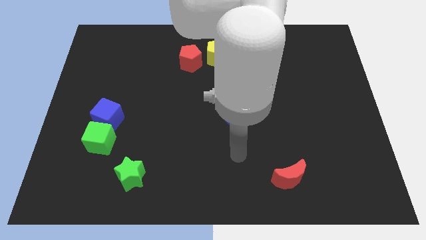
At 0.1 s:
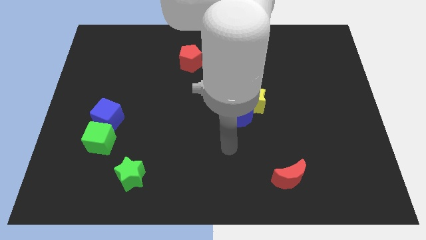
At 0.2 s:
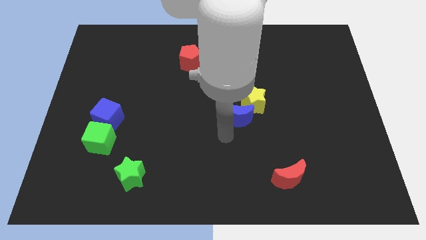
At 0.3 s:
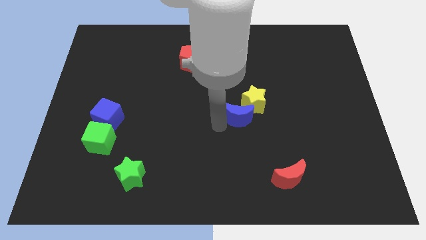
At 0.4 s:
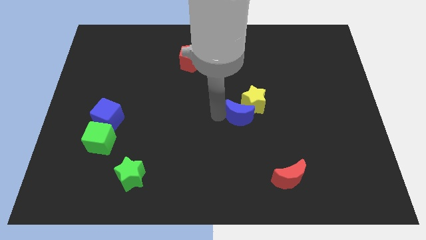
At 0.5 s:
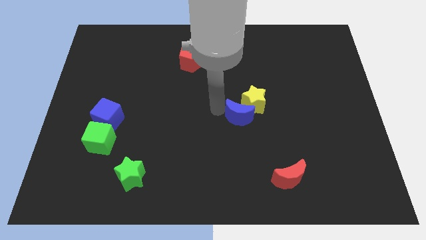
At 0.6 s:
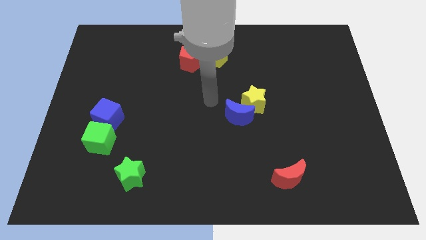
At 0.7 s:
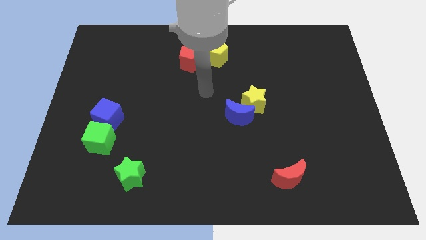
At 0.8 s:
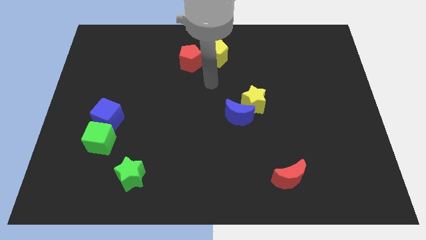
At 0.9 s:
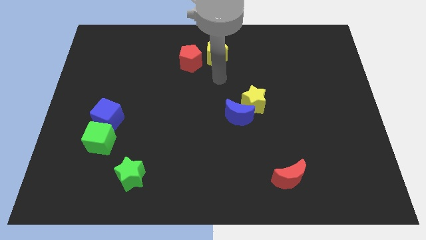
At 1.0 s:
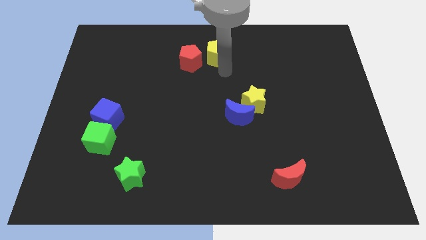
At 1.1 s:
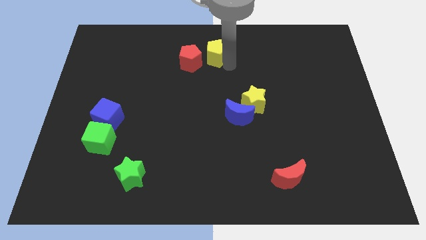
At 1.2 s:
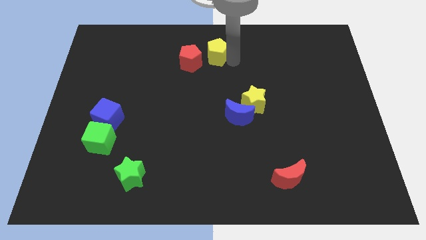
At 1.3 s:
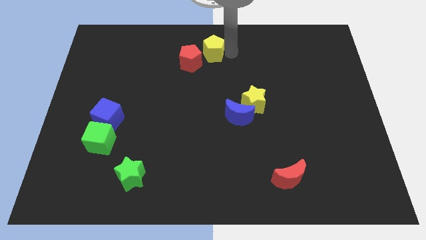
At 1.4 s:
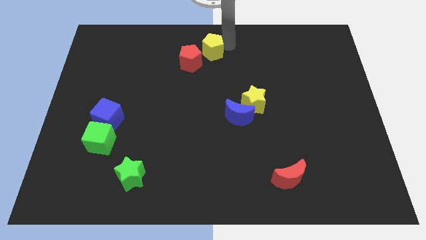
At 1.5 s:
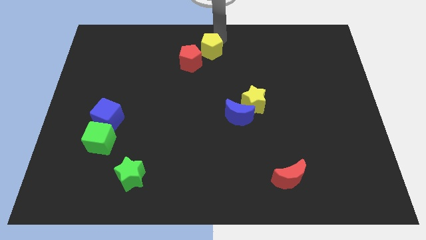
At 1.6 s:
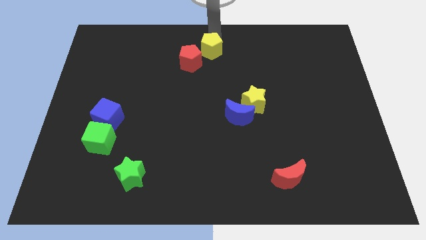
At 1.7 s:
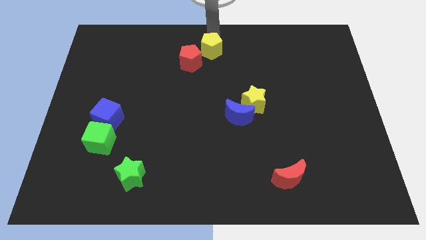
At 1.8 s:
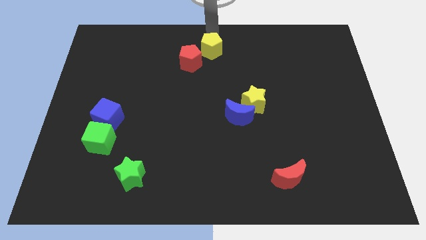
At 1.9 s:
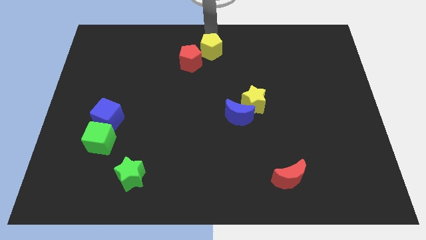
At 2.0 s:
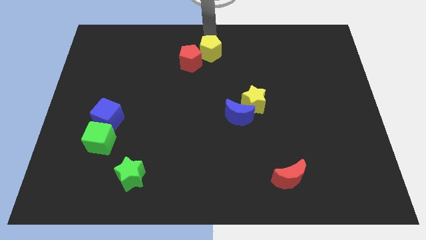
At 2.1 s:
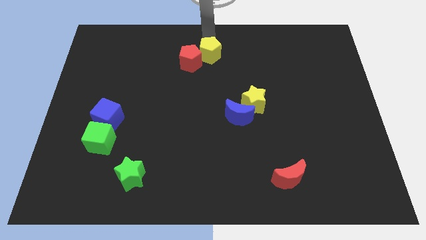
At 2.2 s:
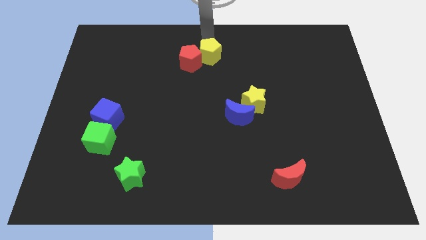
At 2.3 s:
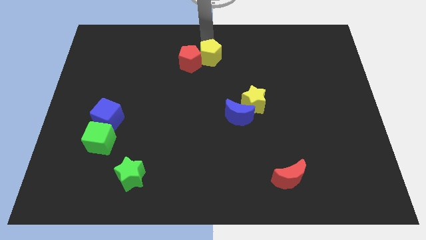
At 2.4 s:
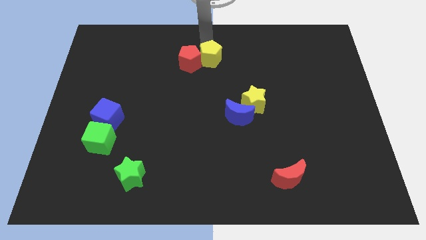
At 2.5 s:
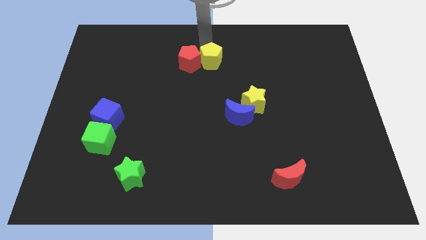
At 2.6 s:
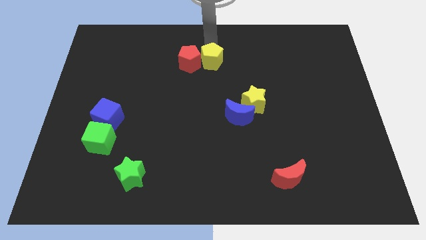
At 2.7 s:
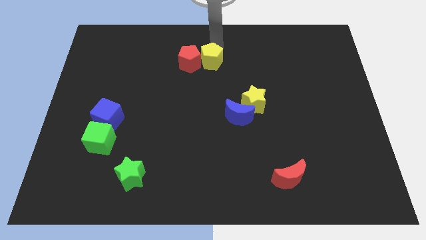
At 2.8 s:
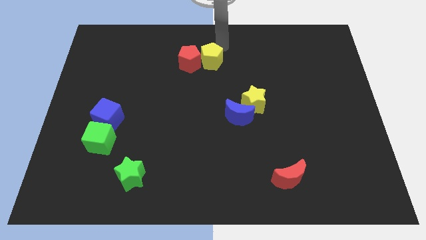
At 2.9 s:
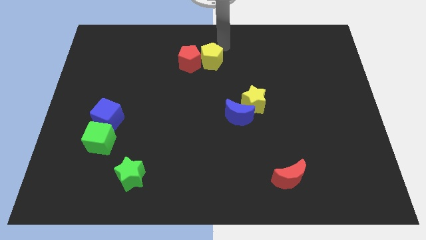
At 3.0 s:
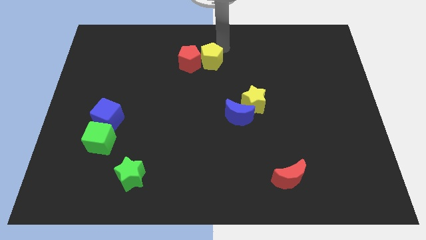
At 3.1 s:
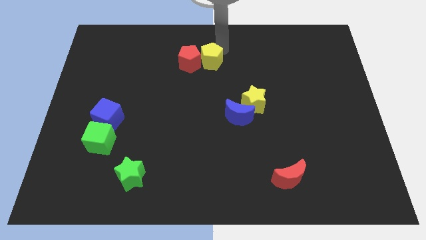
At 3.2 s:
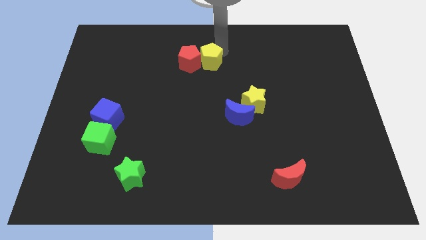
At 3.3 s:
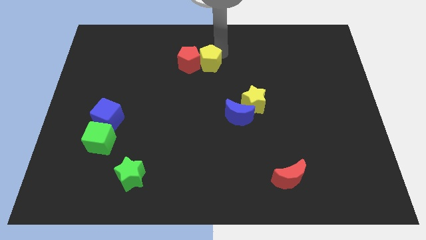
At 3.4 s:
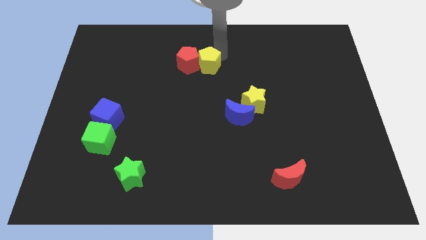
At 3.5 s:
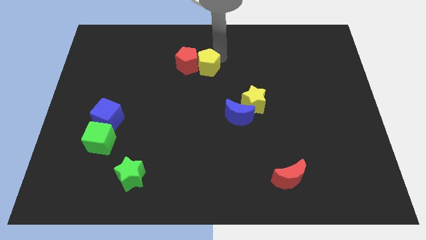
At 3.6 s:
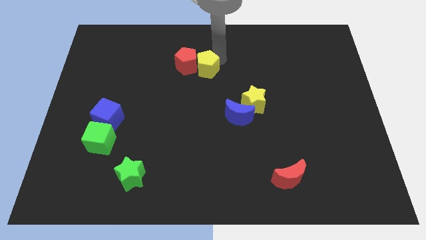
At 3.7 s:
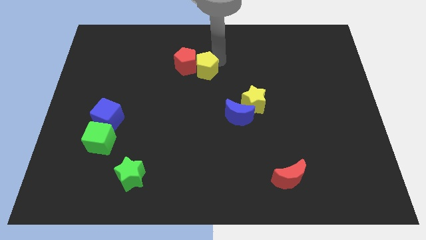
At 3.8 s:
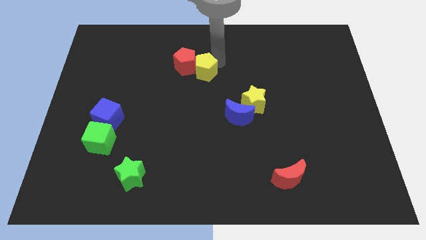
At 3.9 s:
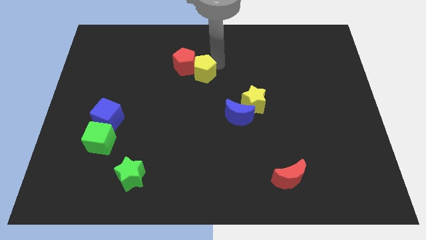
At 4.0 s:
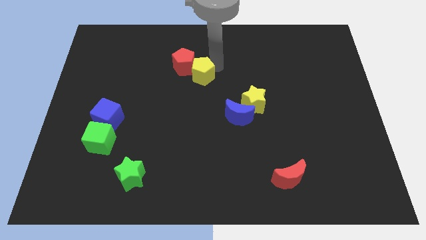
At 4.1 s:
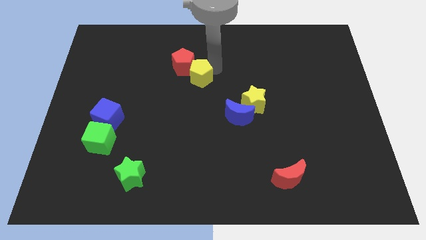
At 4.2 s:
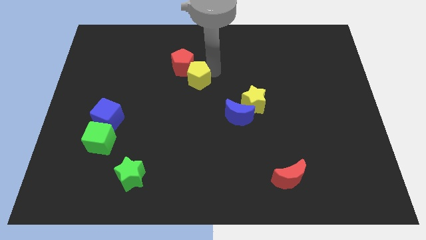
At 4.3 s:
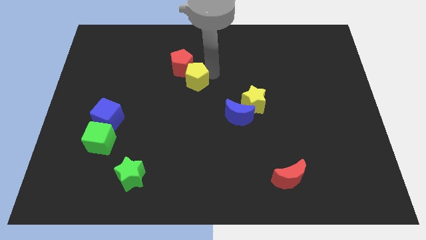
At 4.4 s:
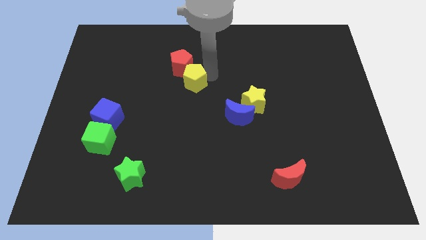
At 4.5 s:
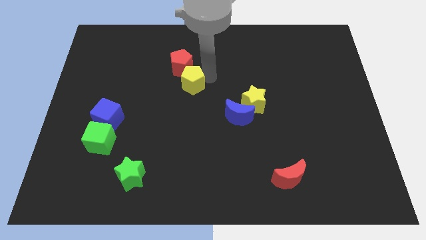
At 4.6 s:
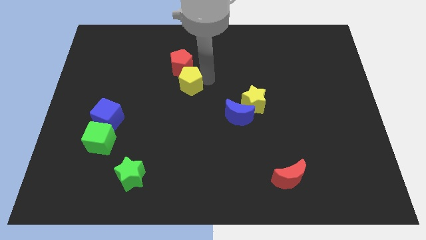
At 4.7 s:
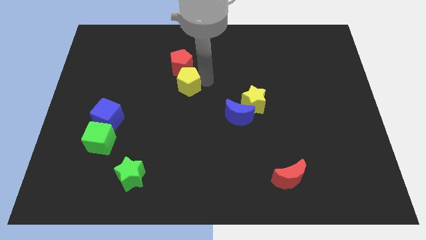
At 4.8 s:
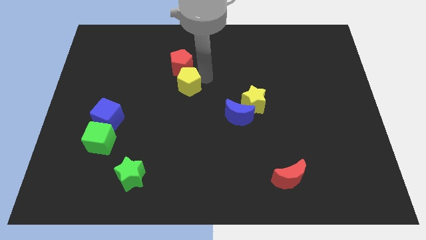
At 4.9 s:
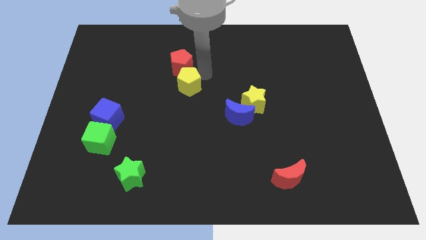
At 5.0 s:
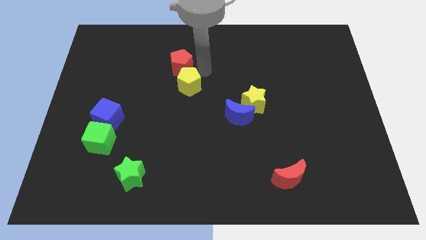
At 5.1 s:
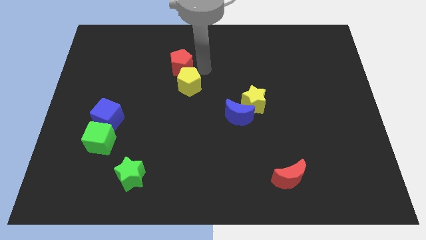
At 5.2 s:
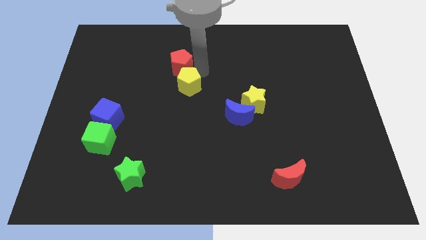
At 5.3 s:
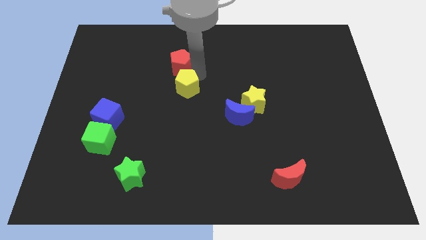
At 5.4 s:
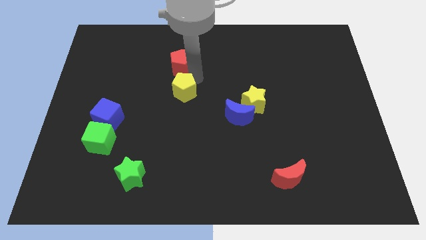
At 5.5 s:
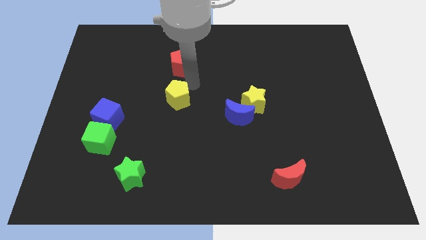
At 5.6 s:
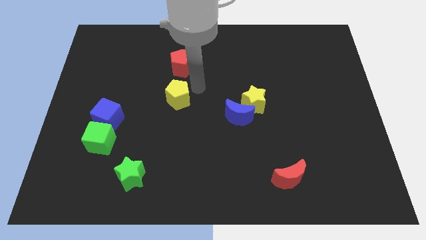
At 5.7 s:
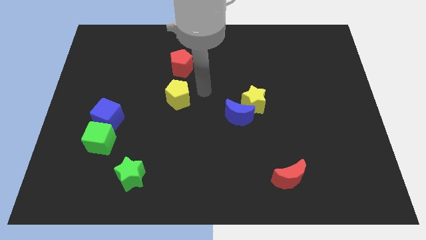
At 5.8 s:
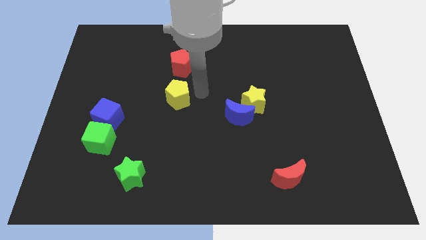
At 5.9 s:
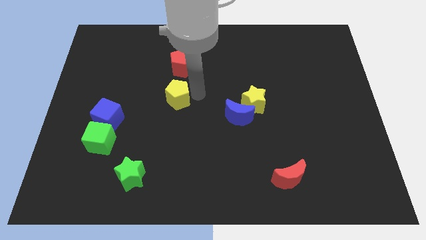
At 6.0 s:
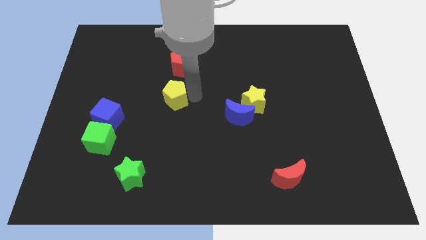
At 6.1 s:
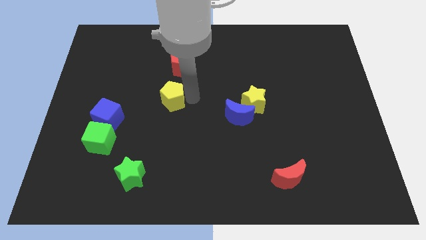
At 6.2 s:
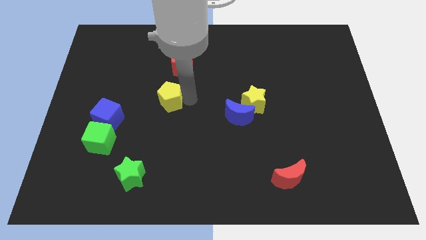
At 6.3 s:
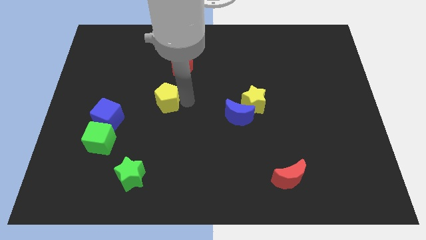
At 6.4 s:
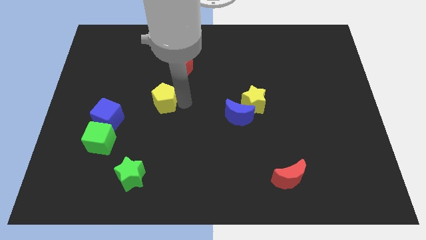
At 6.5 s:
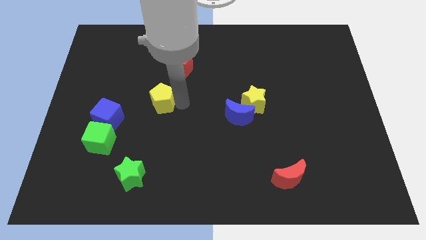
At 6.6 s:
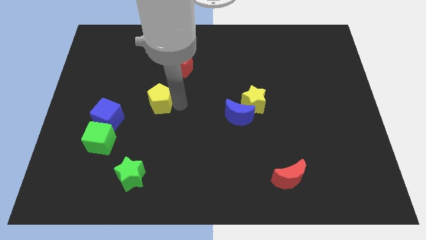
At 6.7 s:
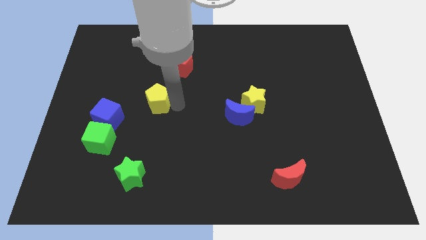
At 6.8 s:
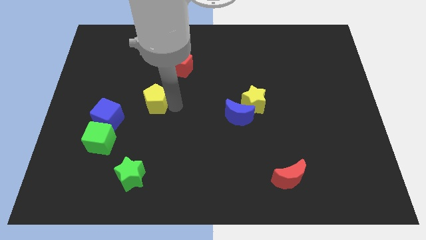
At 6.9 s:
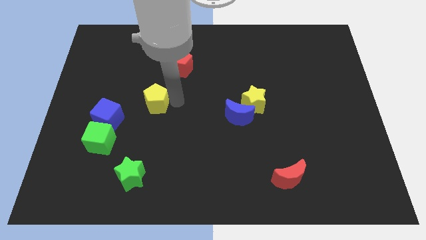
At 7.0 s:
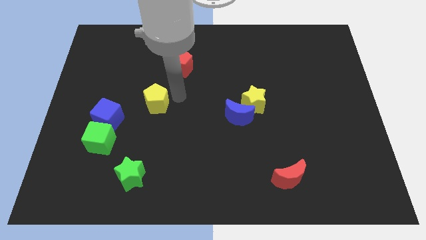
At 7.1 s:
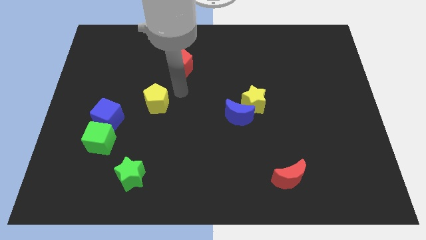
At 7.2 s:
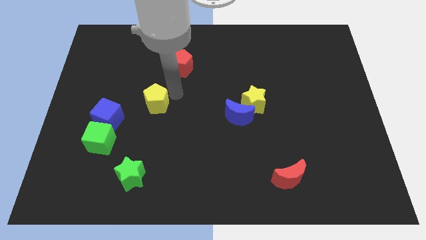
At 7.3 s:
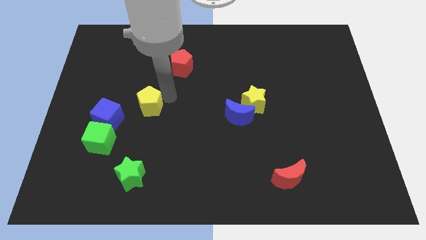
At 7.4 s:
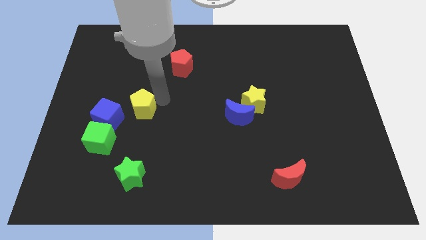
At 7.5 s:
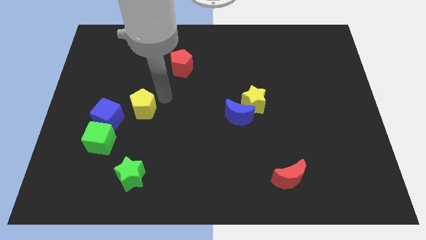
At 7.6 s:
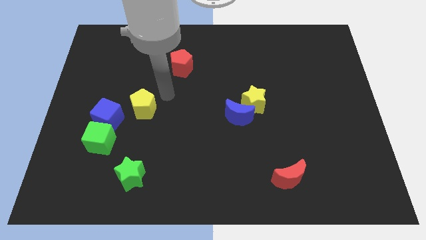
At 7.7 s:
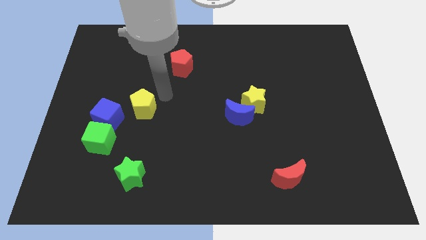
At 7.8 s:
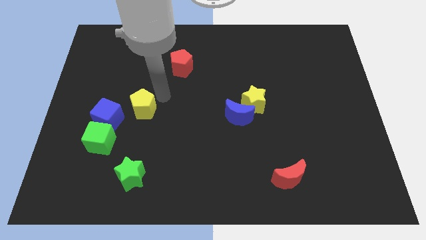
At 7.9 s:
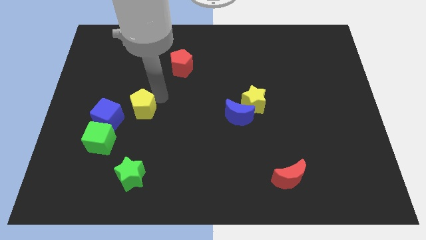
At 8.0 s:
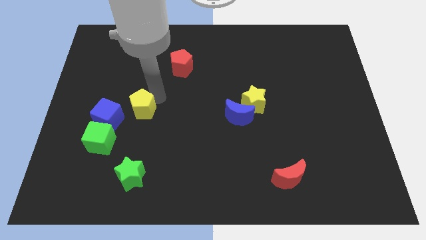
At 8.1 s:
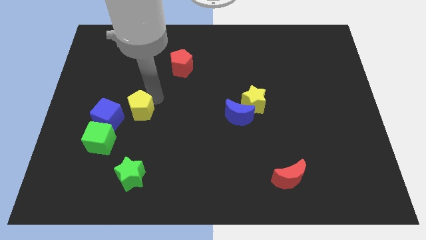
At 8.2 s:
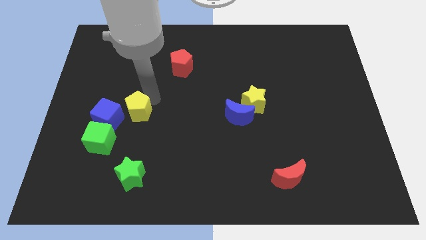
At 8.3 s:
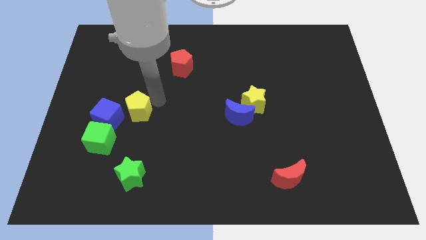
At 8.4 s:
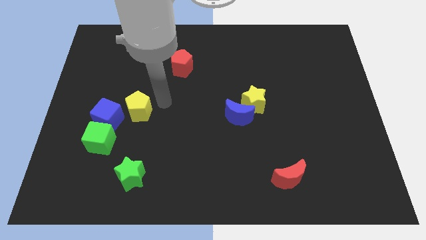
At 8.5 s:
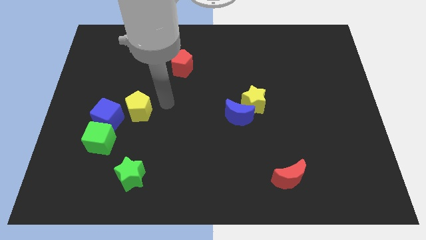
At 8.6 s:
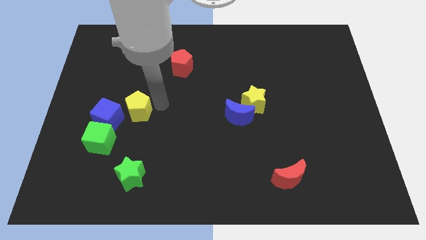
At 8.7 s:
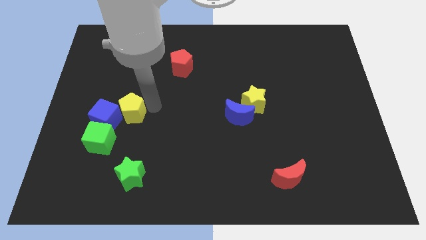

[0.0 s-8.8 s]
slide the yellow pentagon towards the blue cube
